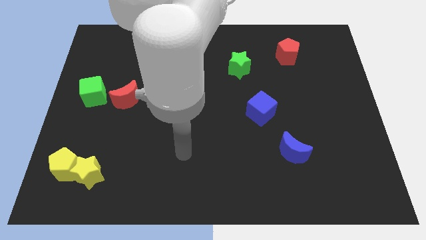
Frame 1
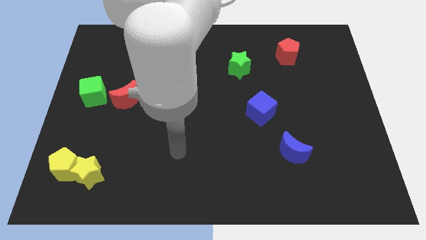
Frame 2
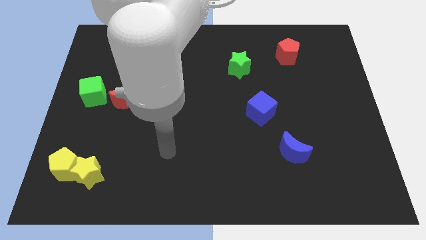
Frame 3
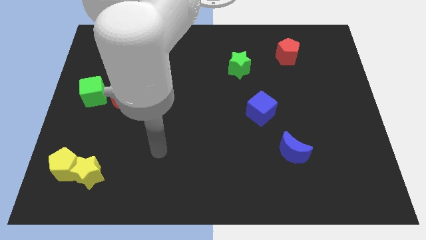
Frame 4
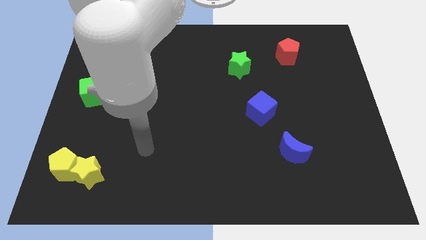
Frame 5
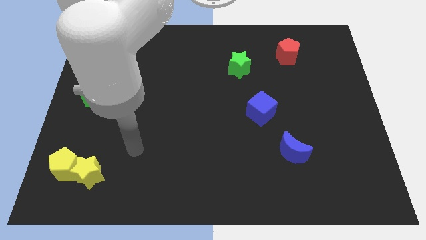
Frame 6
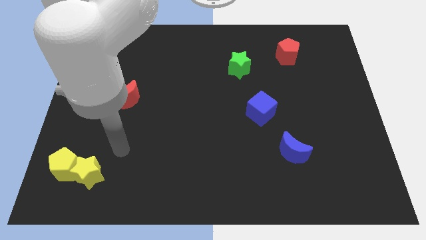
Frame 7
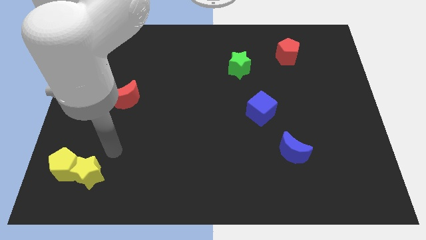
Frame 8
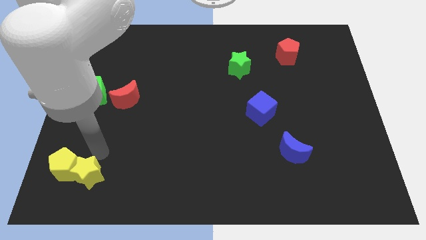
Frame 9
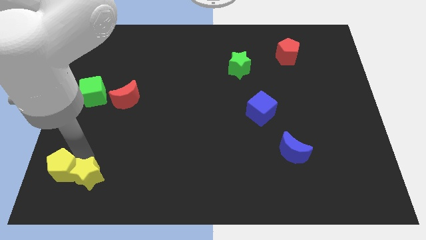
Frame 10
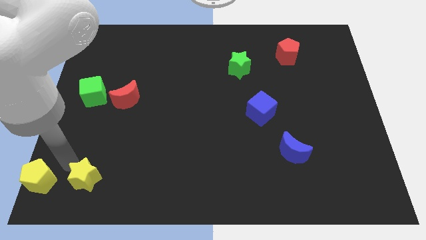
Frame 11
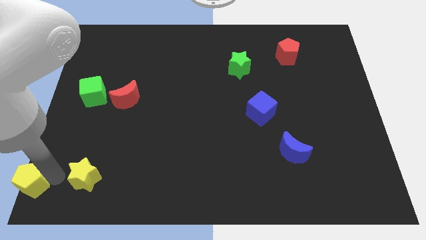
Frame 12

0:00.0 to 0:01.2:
move the yellow star away from the yellow pentagon

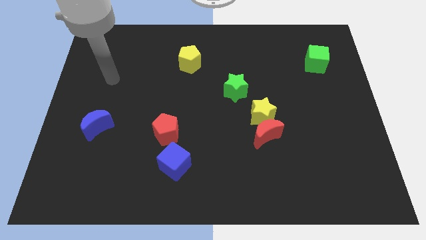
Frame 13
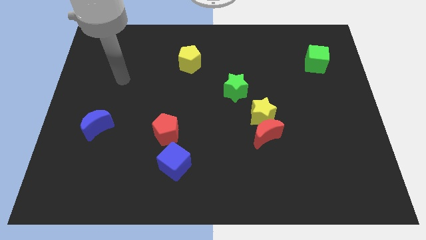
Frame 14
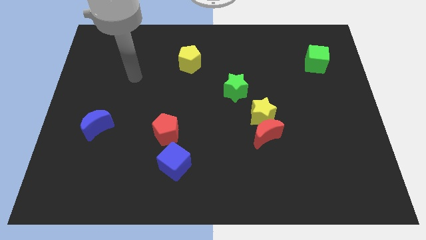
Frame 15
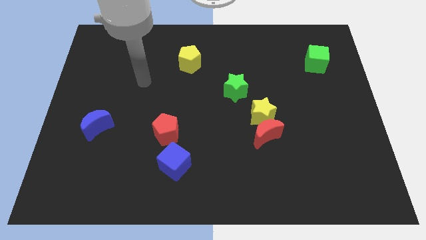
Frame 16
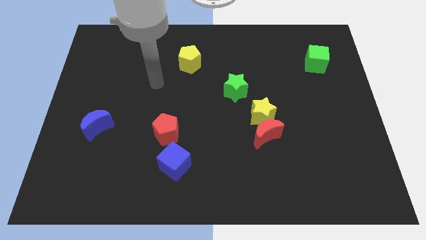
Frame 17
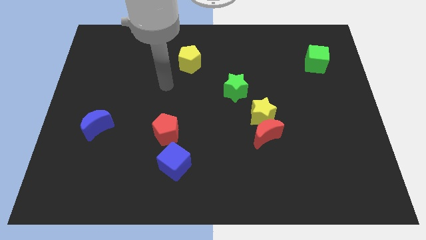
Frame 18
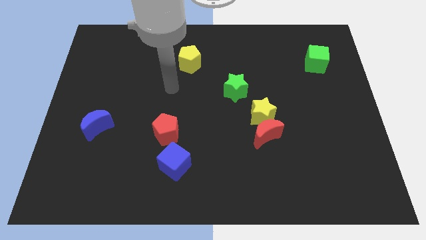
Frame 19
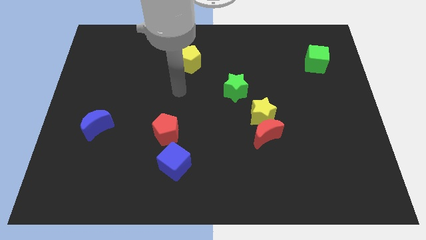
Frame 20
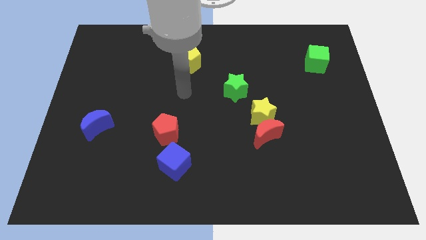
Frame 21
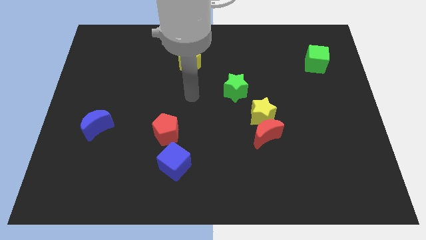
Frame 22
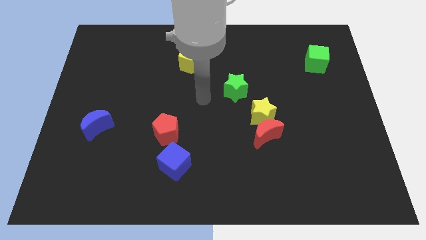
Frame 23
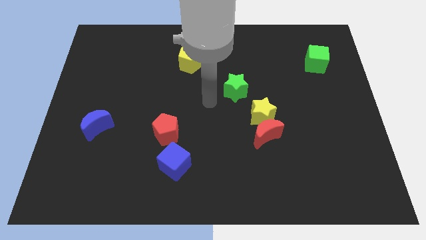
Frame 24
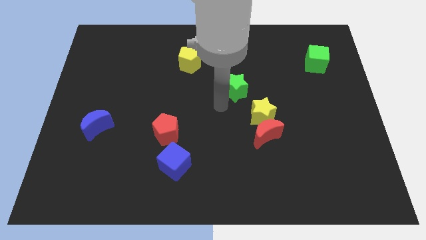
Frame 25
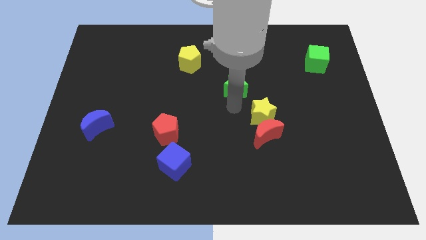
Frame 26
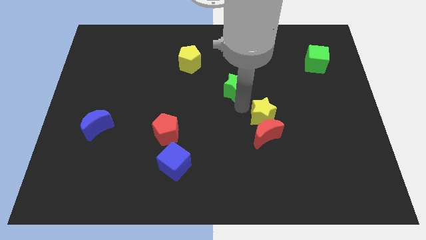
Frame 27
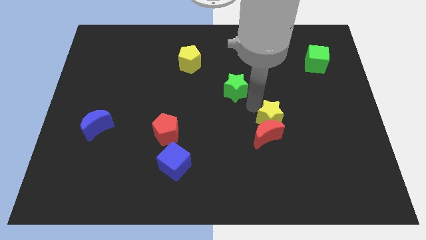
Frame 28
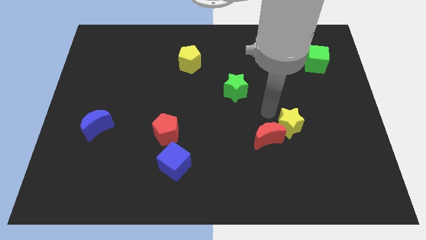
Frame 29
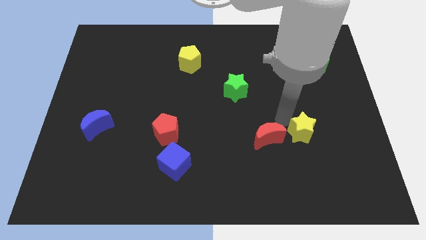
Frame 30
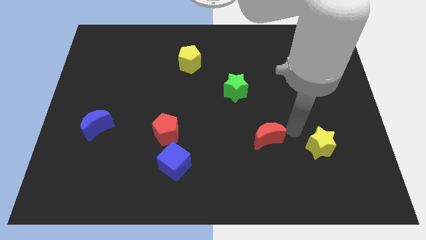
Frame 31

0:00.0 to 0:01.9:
separate the red moon from the yellow star

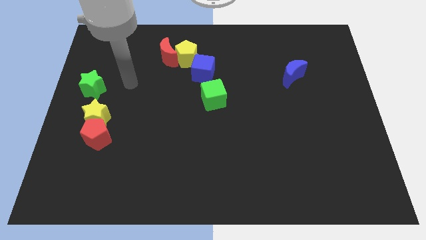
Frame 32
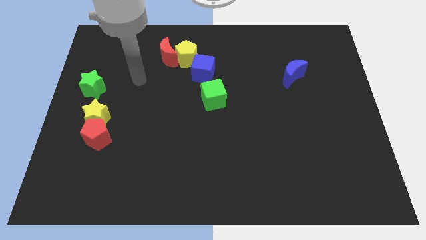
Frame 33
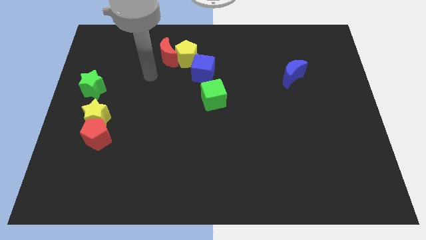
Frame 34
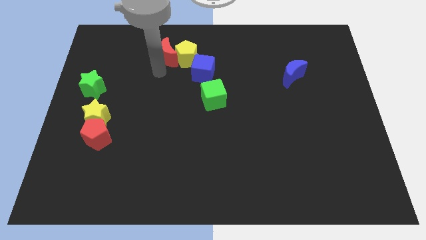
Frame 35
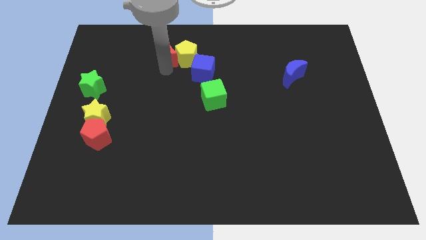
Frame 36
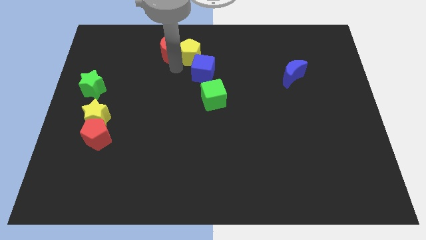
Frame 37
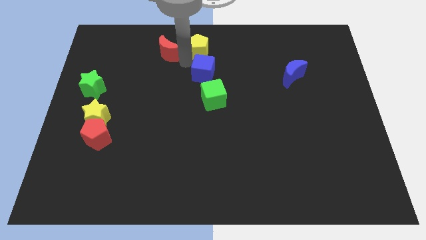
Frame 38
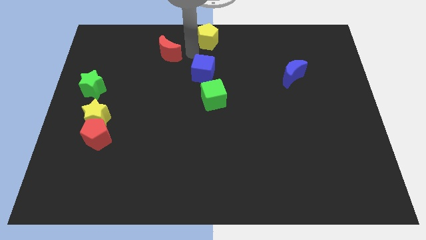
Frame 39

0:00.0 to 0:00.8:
pull the red moon apart from the yellow pentagon

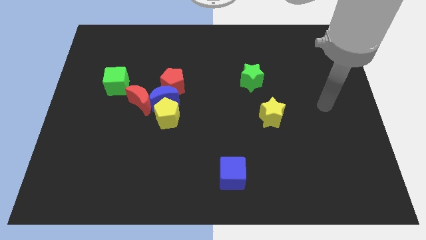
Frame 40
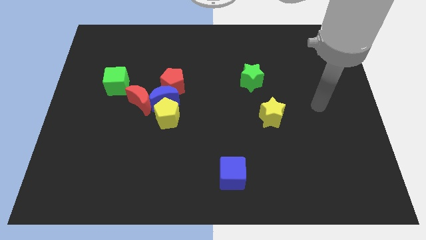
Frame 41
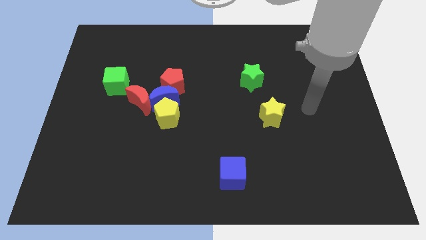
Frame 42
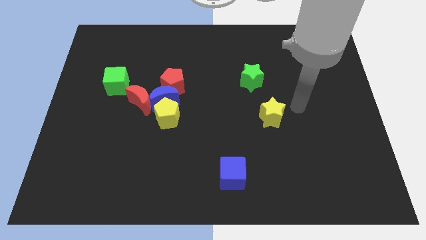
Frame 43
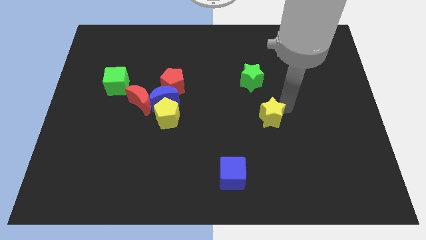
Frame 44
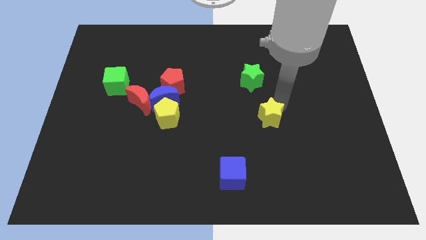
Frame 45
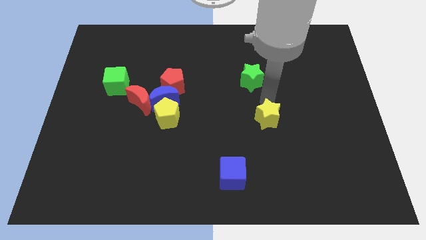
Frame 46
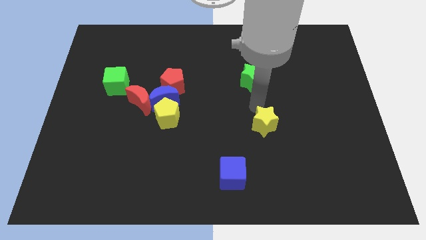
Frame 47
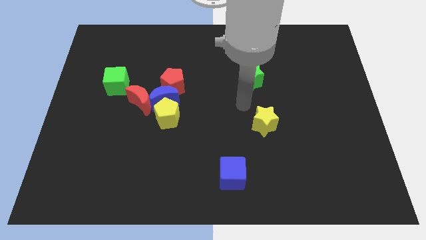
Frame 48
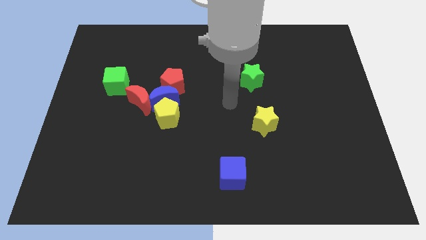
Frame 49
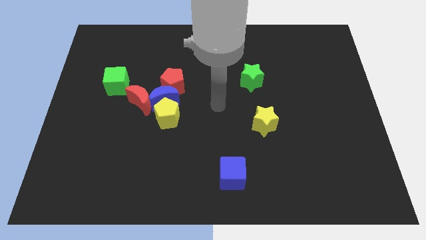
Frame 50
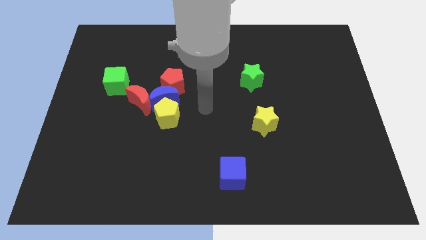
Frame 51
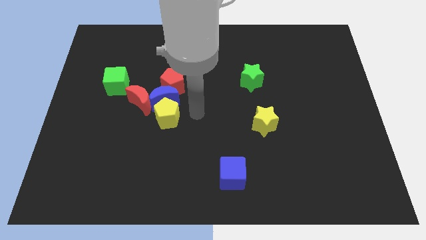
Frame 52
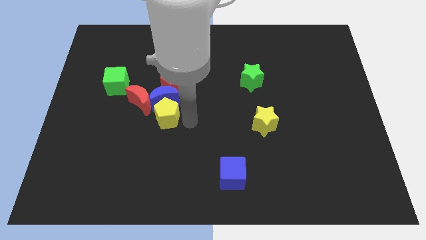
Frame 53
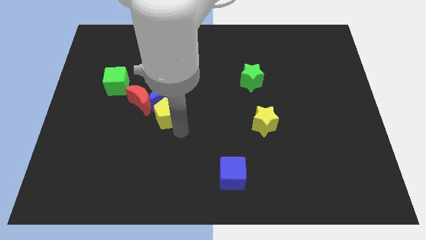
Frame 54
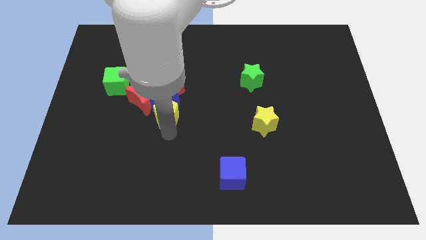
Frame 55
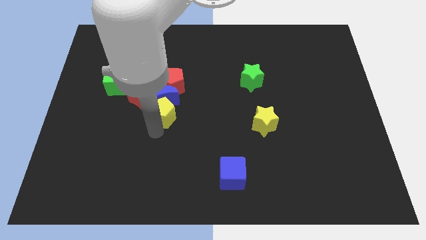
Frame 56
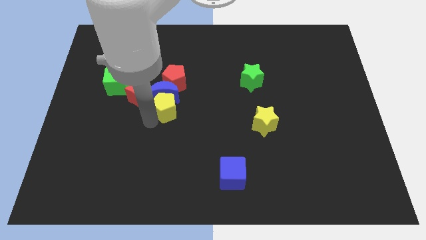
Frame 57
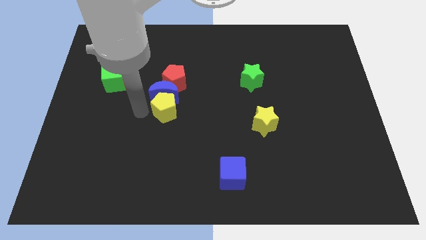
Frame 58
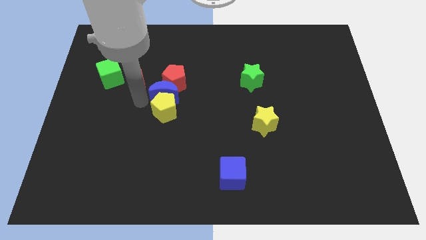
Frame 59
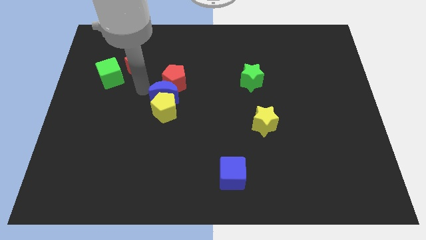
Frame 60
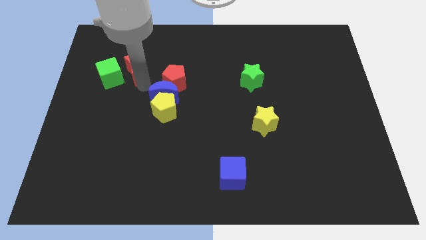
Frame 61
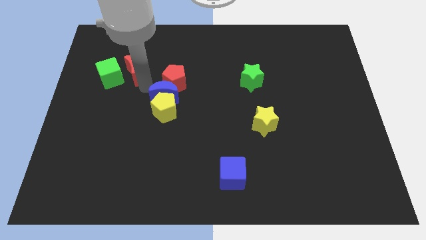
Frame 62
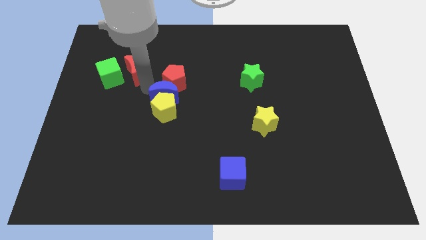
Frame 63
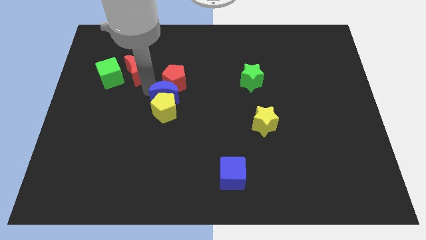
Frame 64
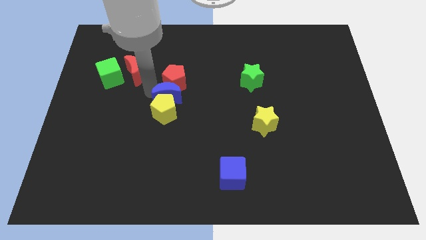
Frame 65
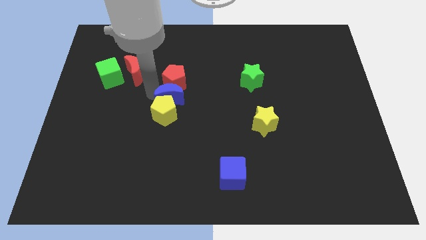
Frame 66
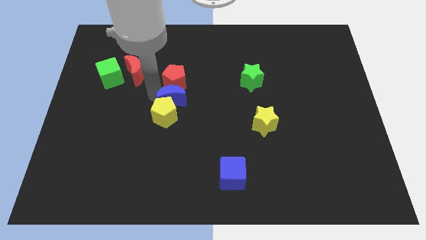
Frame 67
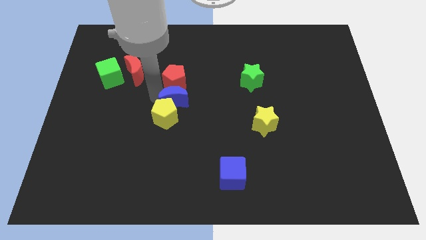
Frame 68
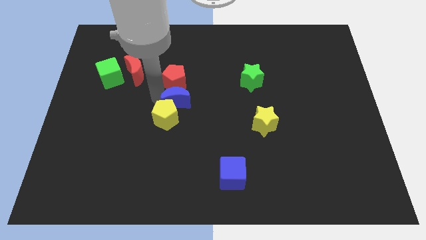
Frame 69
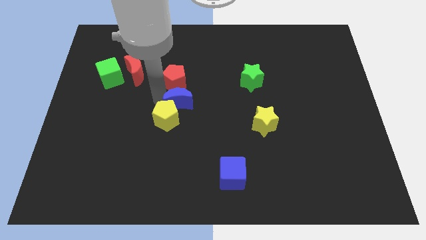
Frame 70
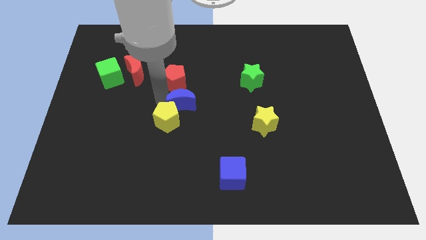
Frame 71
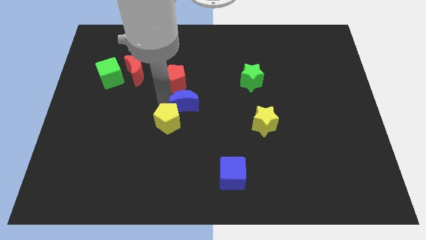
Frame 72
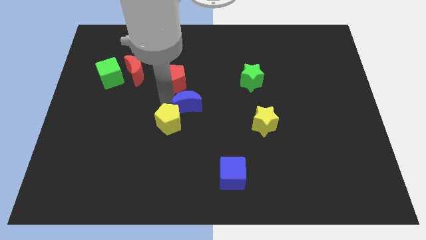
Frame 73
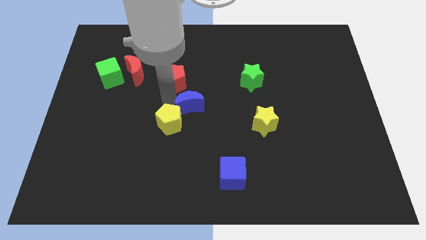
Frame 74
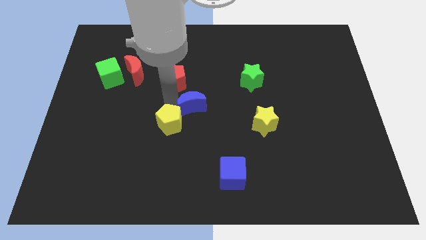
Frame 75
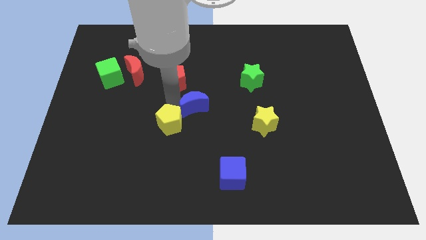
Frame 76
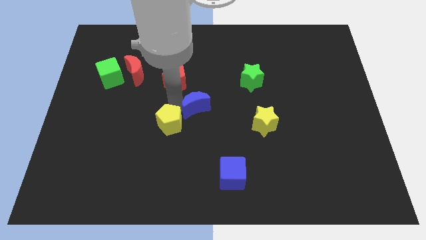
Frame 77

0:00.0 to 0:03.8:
separate the blue moon from the yellow pentagon, red pentagon, and red moon

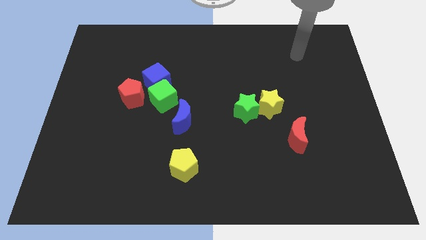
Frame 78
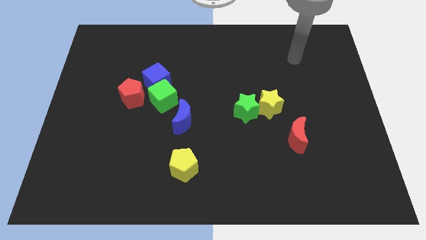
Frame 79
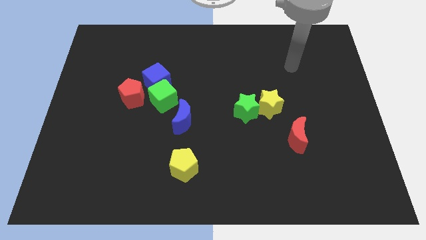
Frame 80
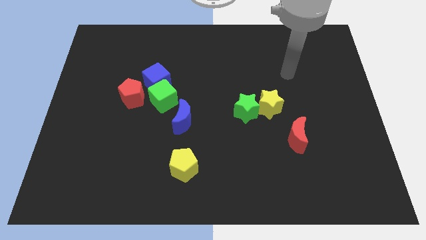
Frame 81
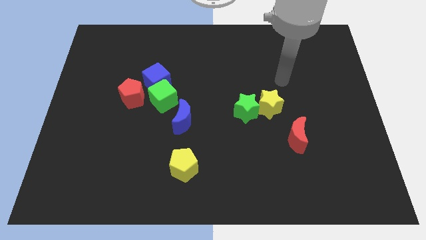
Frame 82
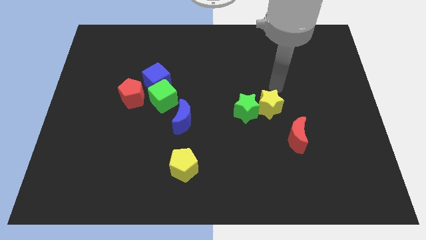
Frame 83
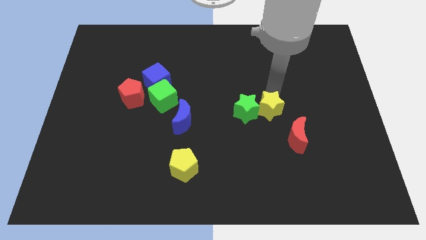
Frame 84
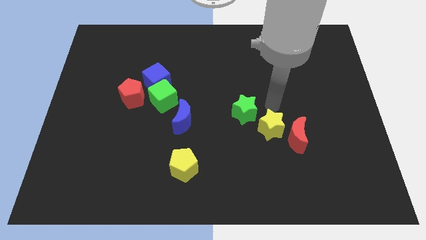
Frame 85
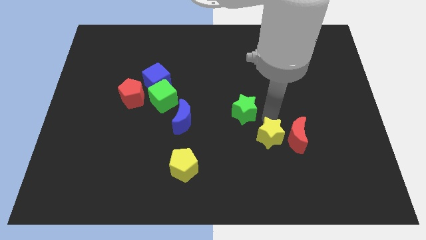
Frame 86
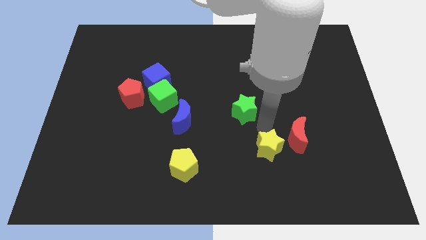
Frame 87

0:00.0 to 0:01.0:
separate the green star from the yellow star

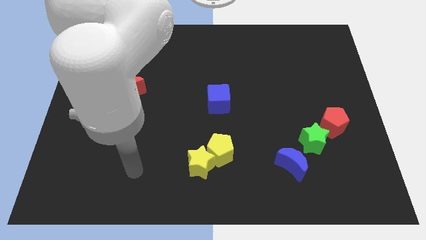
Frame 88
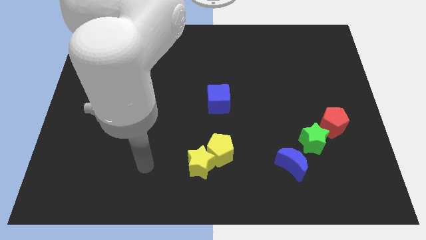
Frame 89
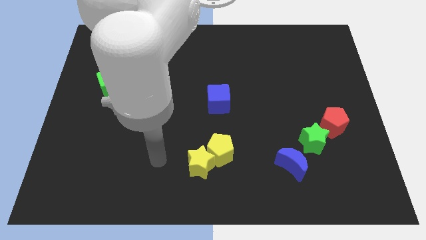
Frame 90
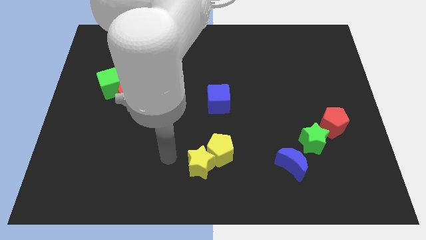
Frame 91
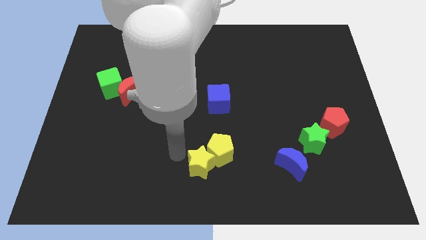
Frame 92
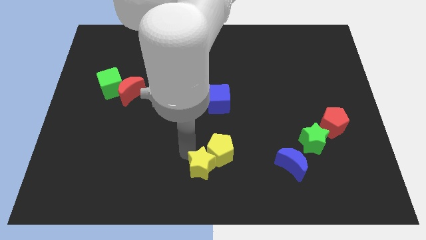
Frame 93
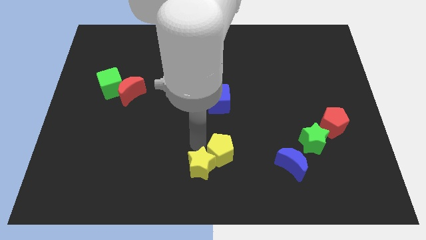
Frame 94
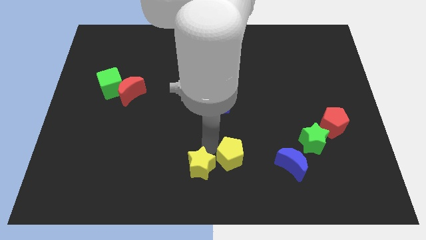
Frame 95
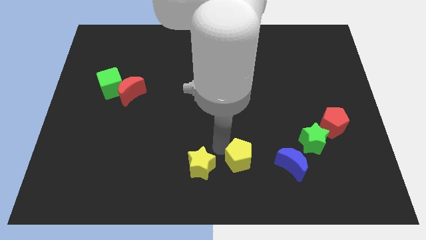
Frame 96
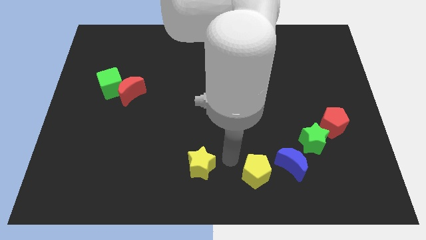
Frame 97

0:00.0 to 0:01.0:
pull the yellow star apart from the yellow pentagon
